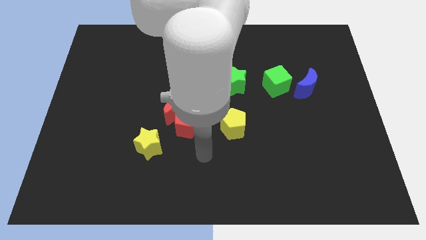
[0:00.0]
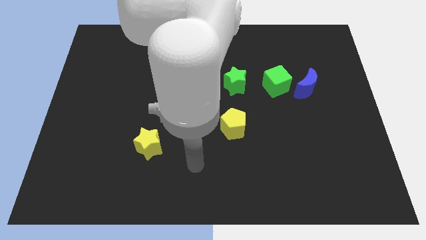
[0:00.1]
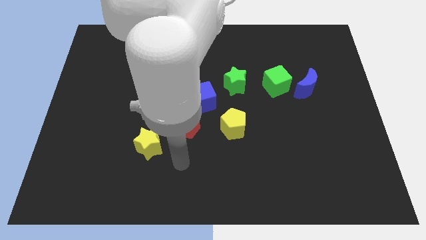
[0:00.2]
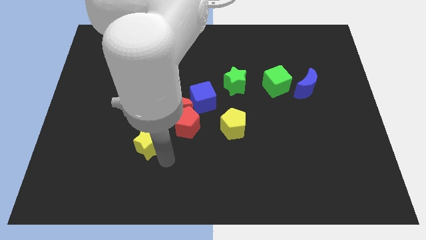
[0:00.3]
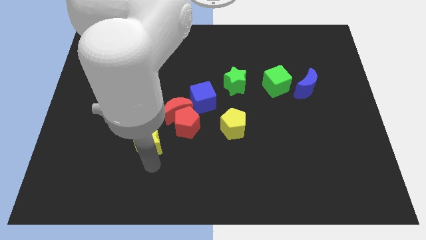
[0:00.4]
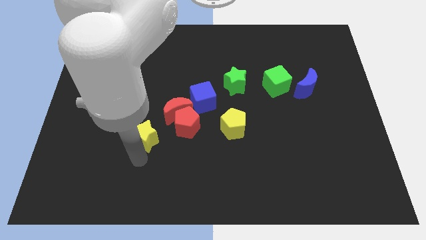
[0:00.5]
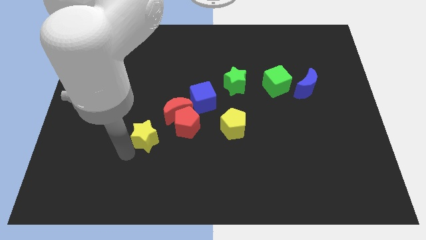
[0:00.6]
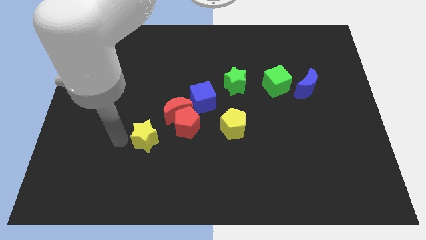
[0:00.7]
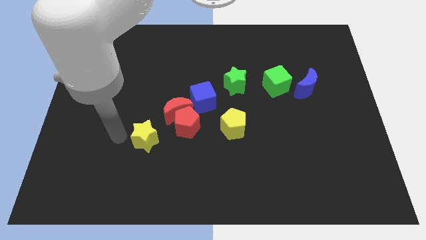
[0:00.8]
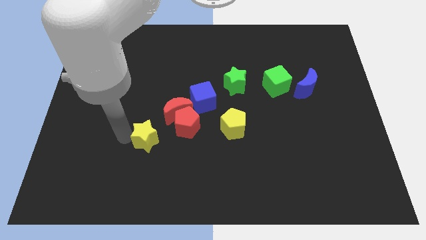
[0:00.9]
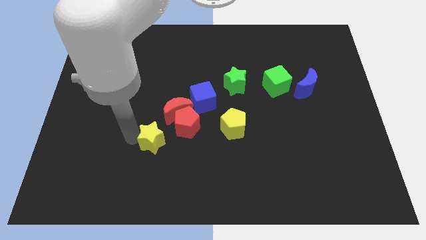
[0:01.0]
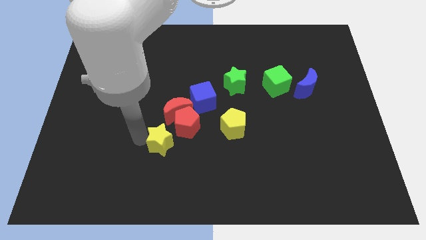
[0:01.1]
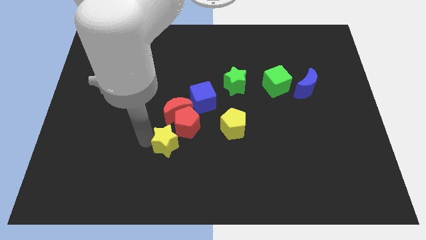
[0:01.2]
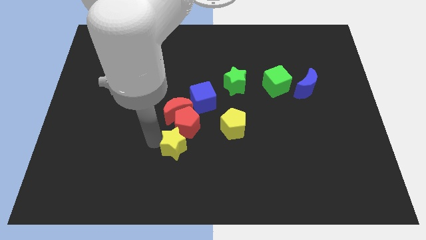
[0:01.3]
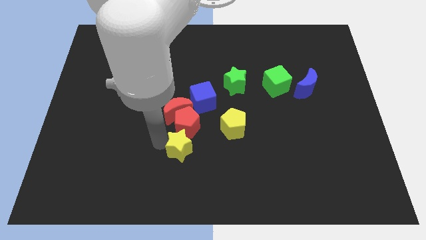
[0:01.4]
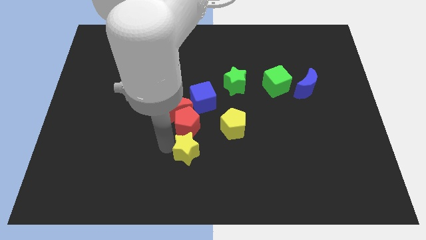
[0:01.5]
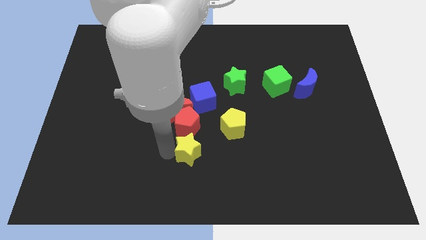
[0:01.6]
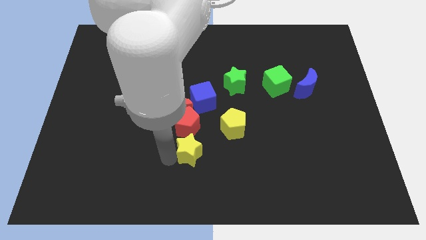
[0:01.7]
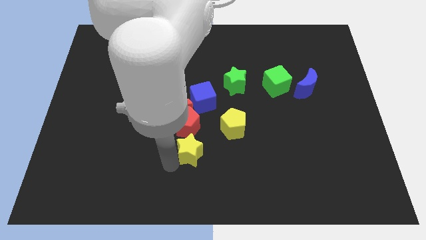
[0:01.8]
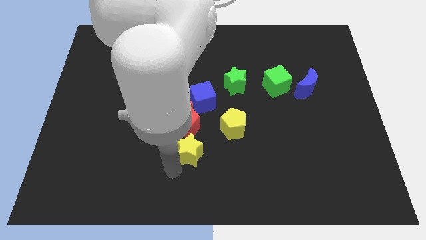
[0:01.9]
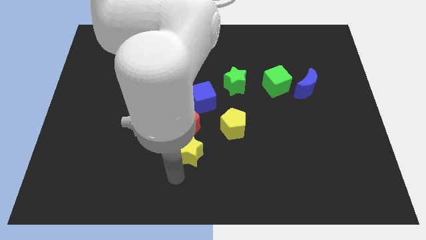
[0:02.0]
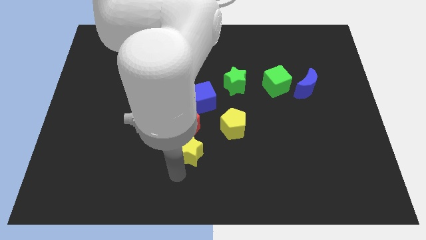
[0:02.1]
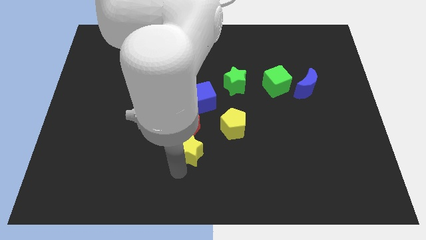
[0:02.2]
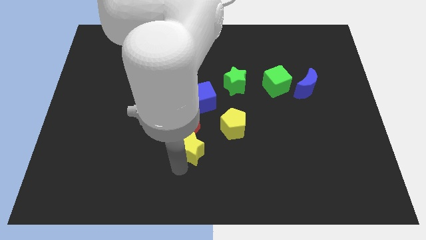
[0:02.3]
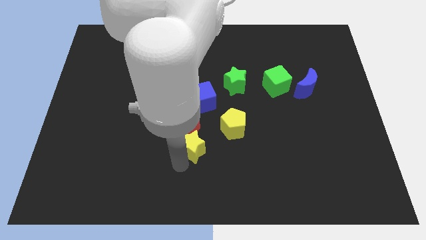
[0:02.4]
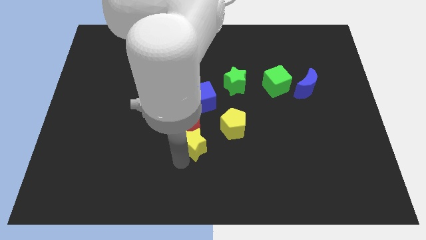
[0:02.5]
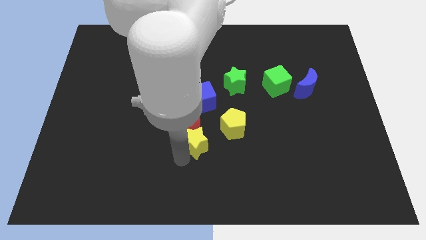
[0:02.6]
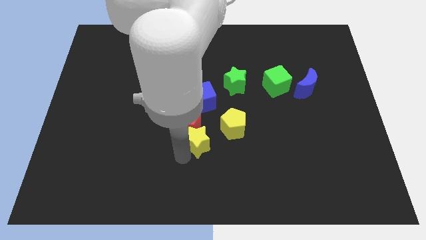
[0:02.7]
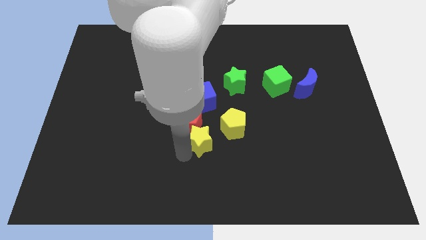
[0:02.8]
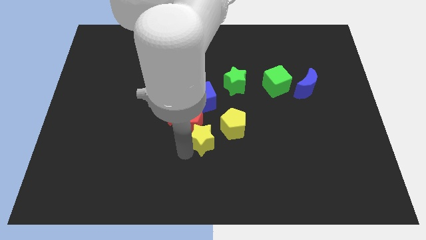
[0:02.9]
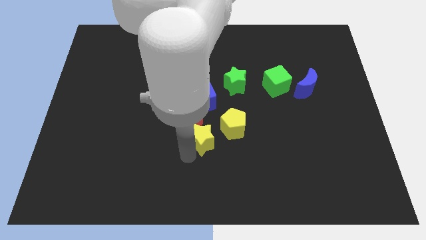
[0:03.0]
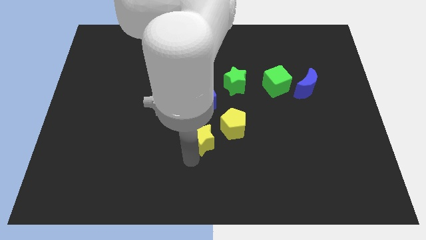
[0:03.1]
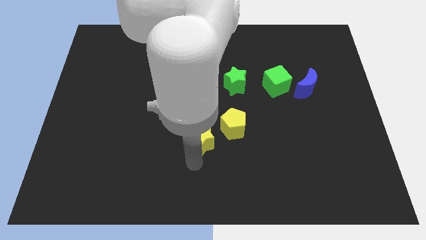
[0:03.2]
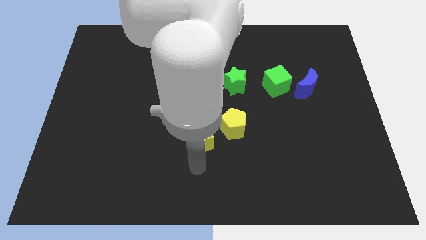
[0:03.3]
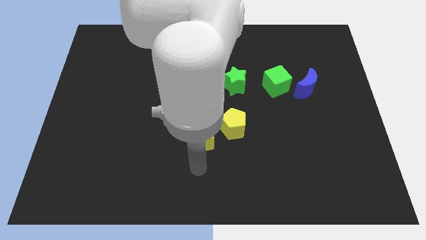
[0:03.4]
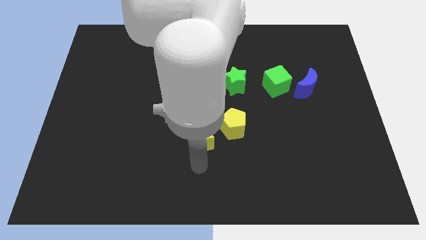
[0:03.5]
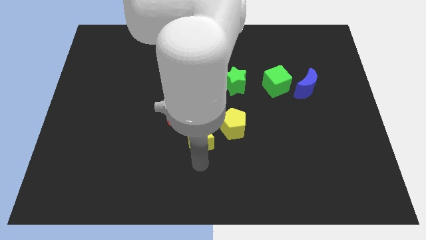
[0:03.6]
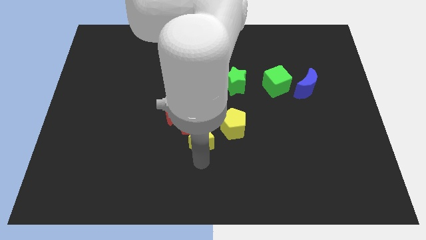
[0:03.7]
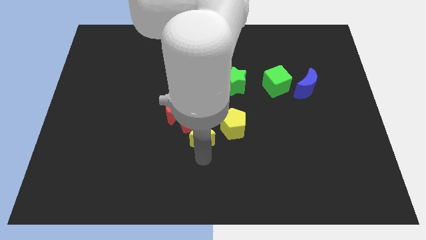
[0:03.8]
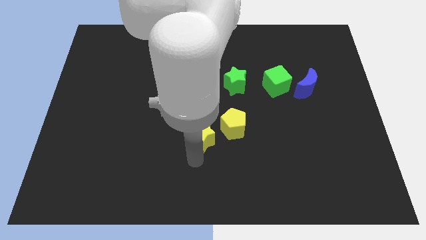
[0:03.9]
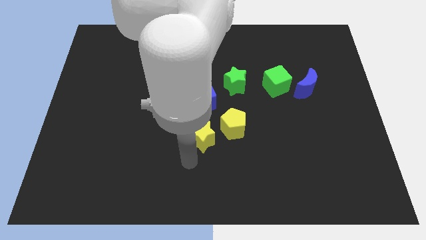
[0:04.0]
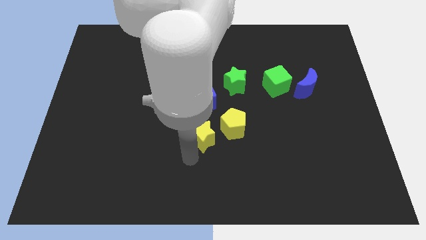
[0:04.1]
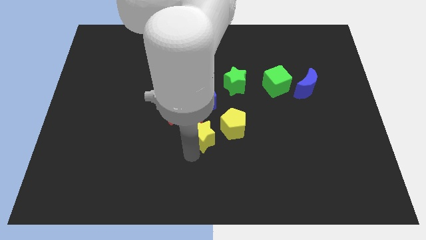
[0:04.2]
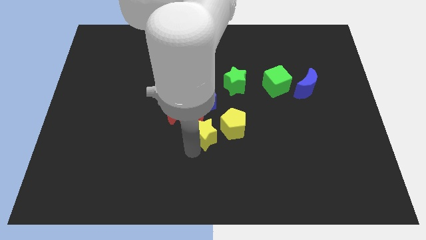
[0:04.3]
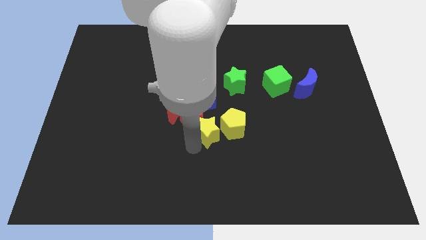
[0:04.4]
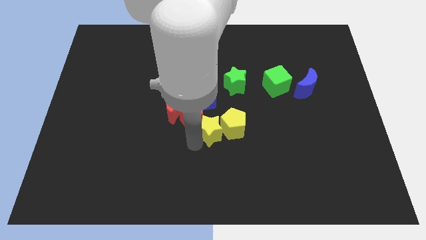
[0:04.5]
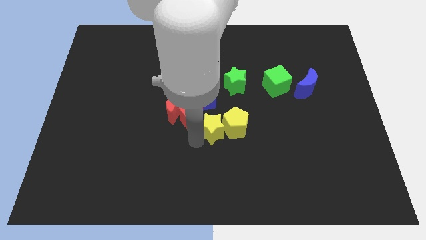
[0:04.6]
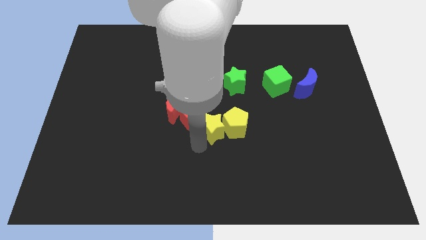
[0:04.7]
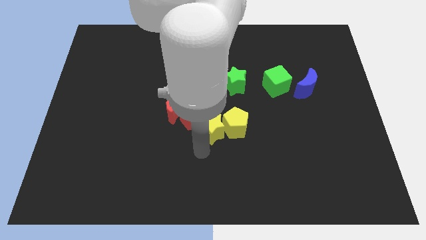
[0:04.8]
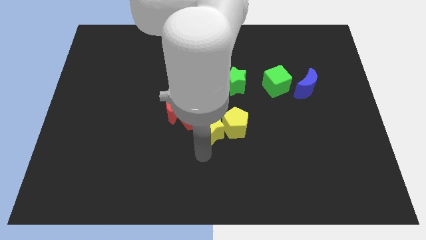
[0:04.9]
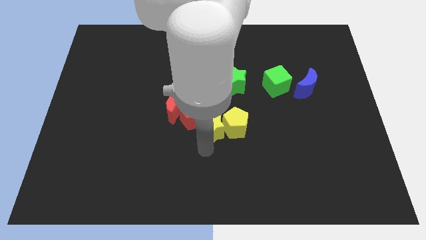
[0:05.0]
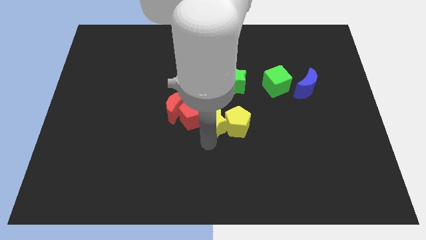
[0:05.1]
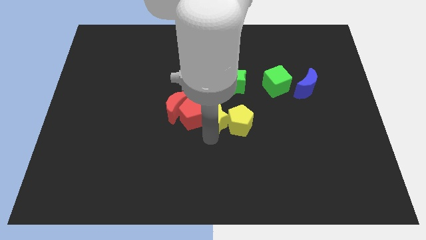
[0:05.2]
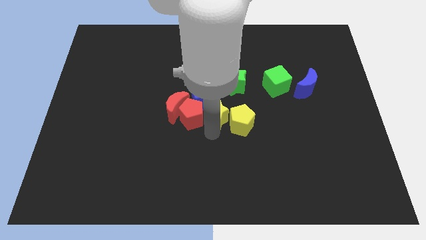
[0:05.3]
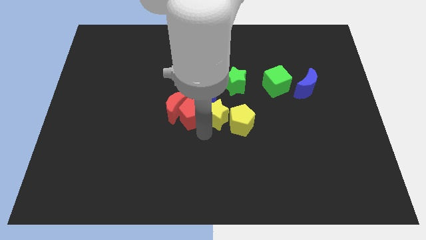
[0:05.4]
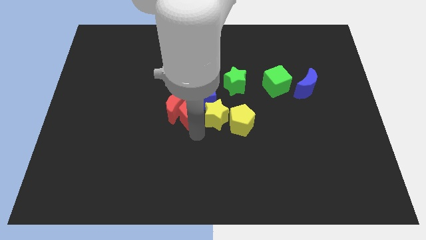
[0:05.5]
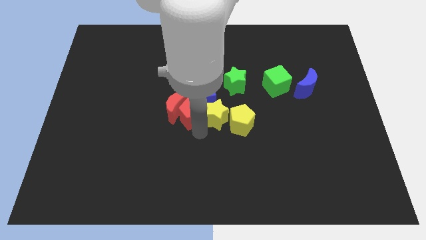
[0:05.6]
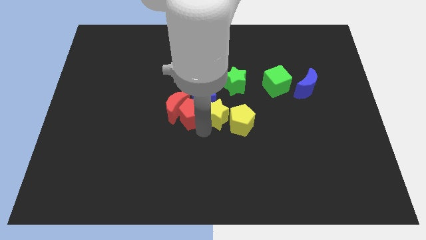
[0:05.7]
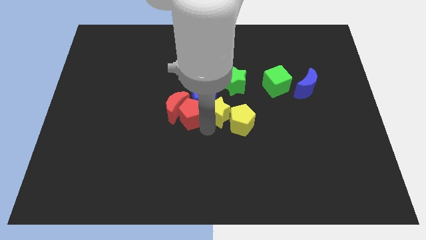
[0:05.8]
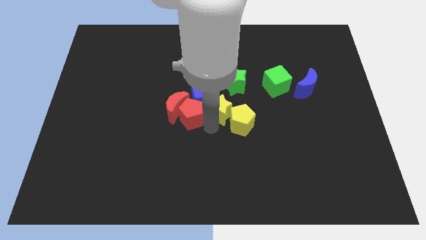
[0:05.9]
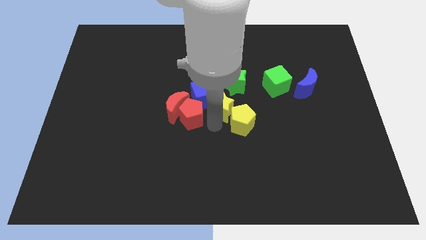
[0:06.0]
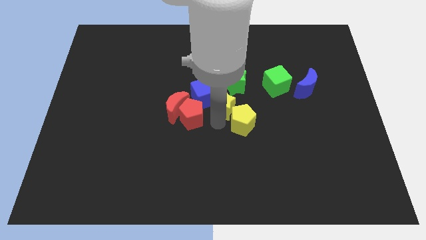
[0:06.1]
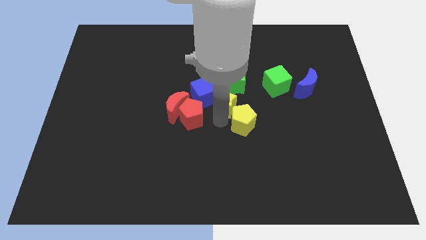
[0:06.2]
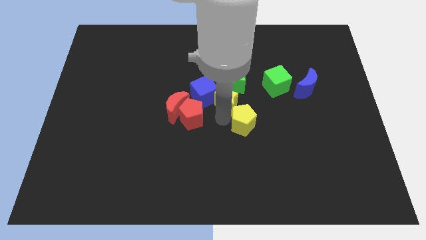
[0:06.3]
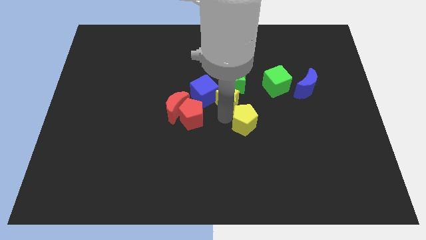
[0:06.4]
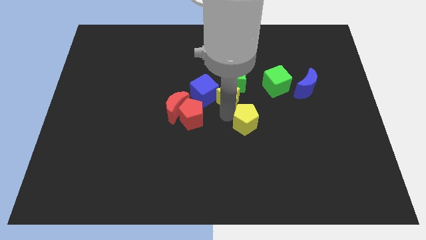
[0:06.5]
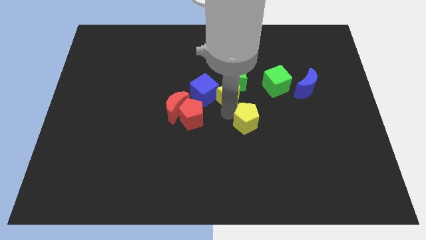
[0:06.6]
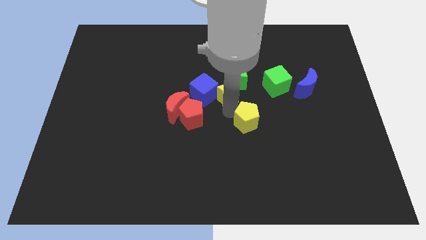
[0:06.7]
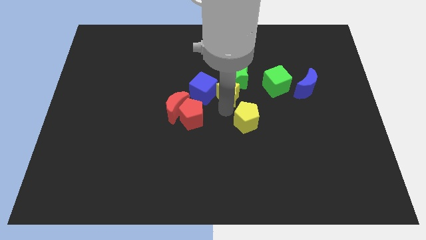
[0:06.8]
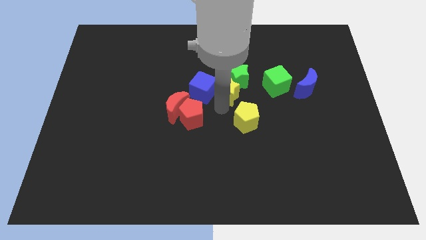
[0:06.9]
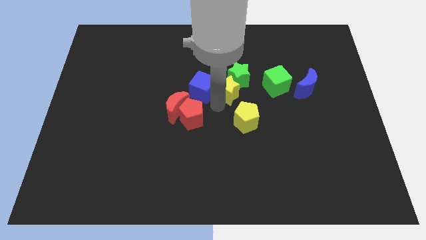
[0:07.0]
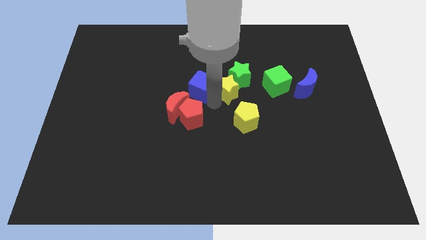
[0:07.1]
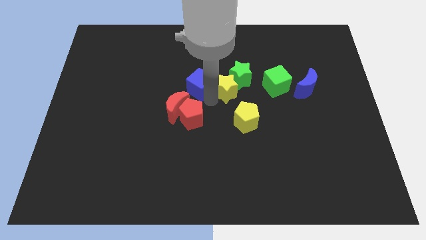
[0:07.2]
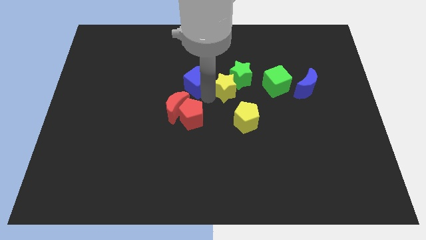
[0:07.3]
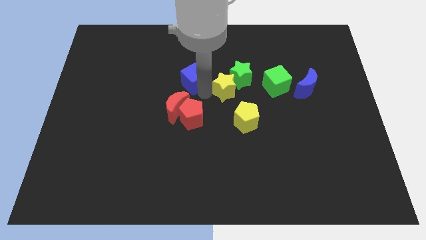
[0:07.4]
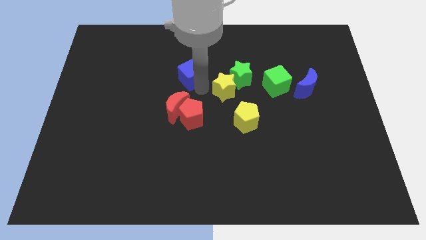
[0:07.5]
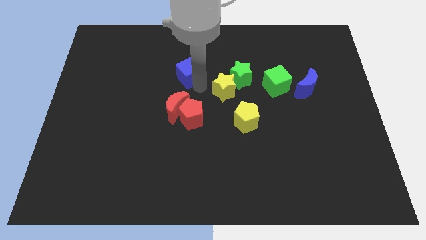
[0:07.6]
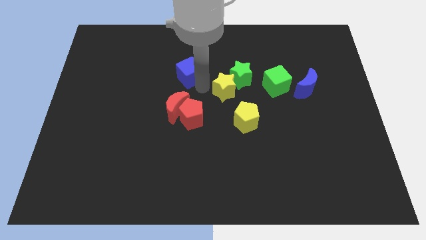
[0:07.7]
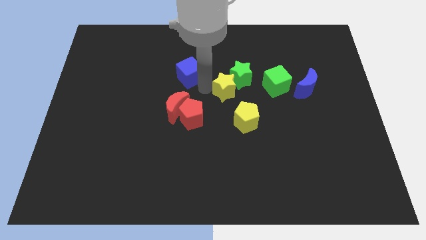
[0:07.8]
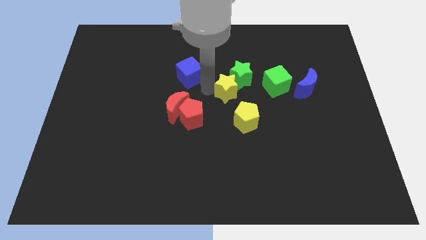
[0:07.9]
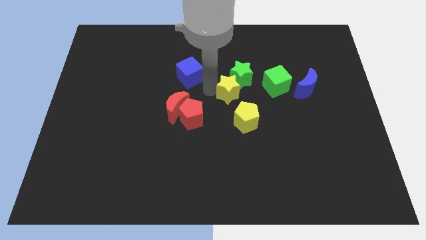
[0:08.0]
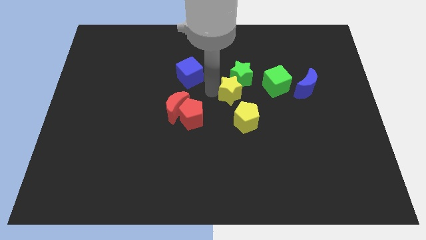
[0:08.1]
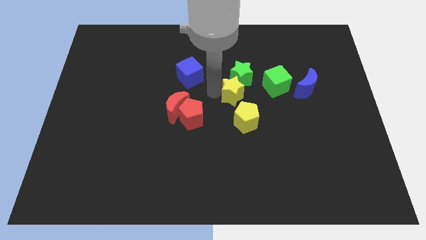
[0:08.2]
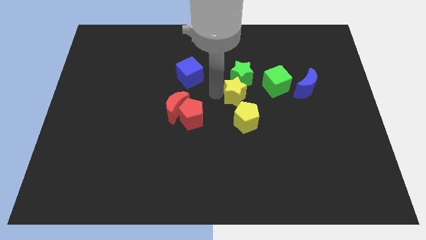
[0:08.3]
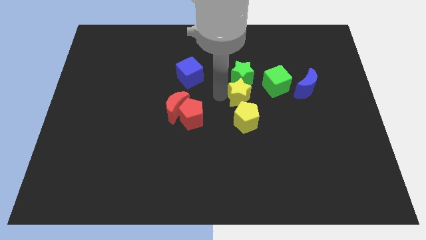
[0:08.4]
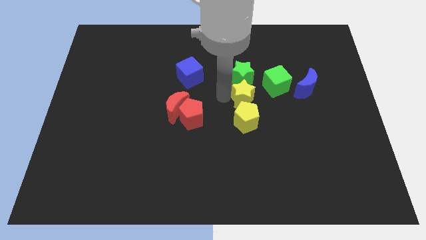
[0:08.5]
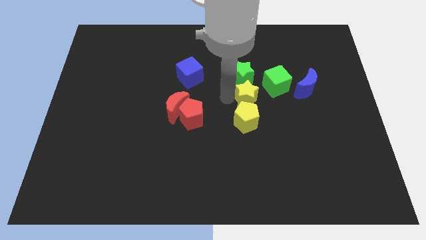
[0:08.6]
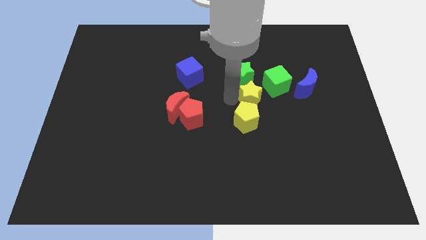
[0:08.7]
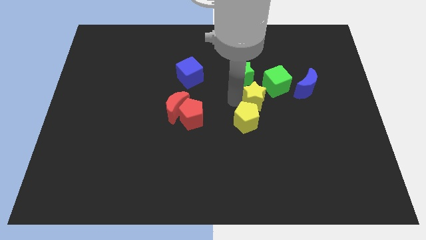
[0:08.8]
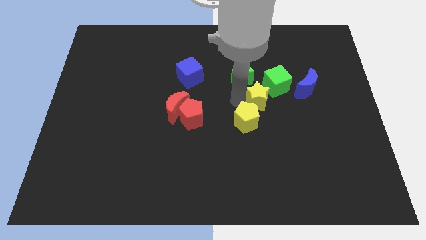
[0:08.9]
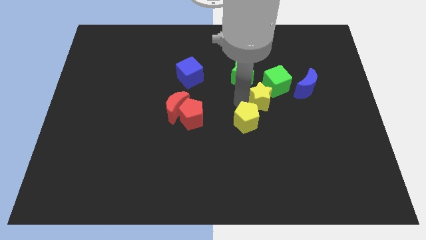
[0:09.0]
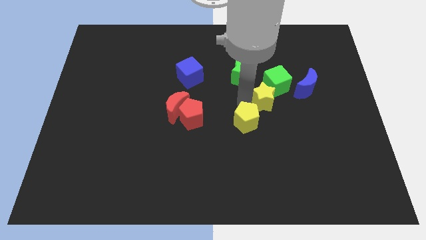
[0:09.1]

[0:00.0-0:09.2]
put the yellow star to the green cube
